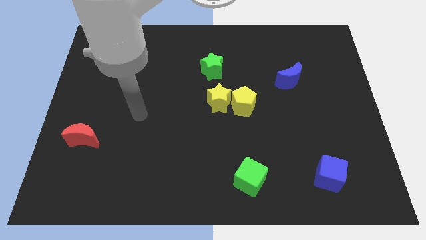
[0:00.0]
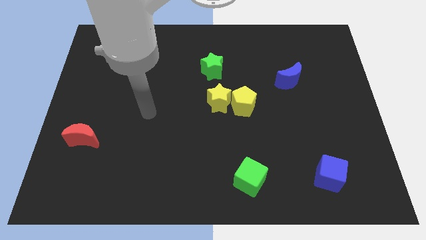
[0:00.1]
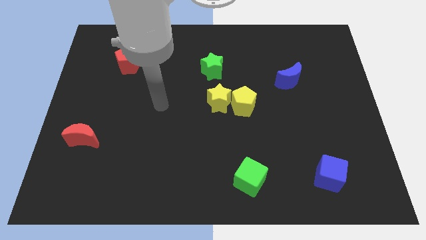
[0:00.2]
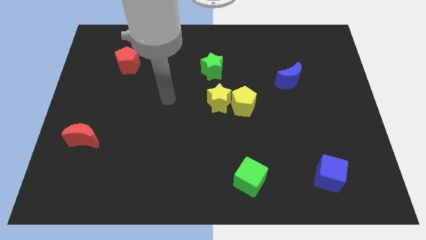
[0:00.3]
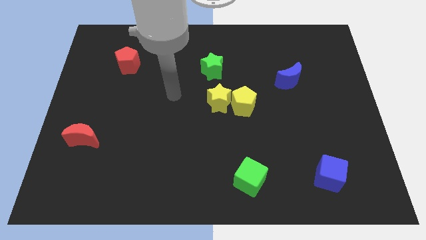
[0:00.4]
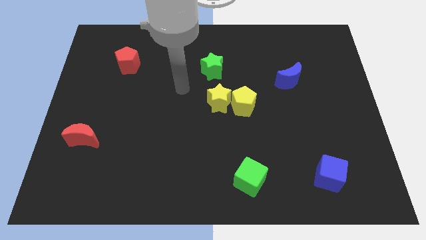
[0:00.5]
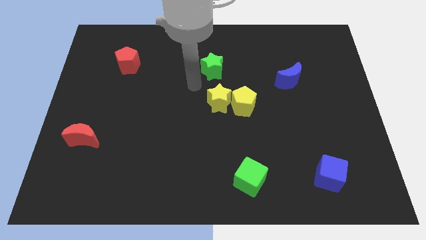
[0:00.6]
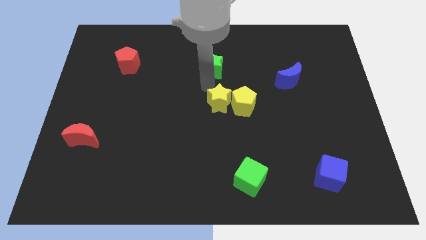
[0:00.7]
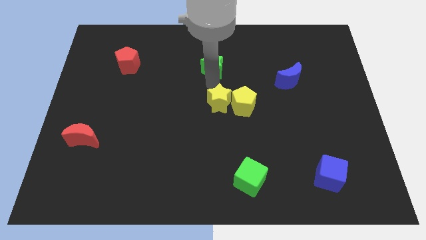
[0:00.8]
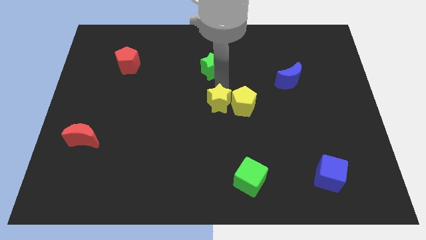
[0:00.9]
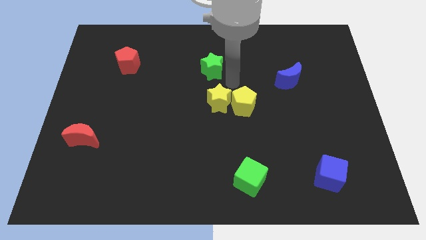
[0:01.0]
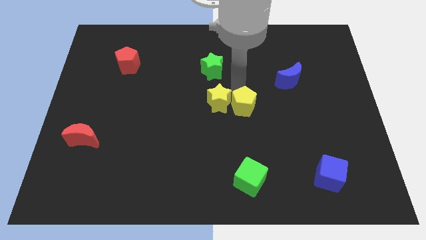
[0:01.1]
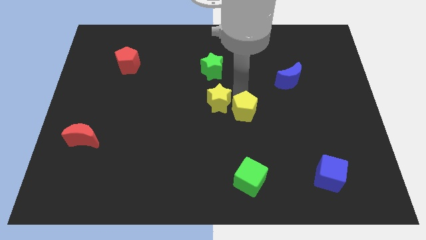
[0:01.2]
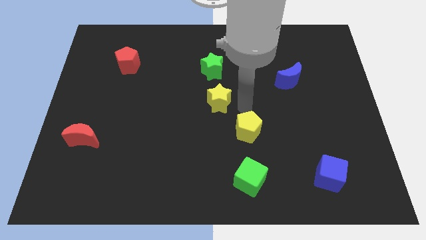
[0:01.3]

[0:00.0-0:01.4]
move the yellow star away from the yellow pentagon

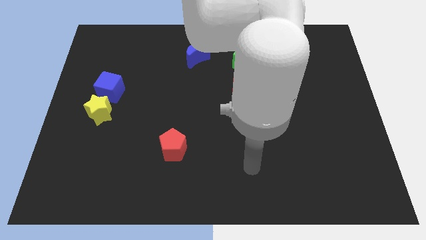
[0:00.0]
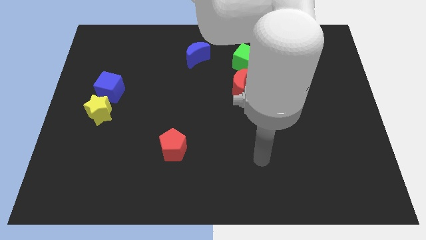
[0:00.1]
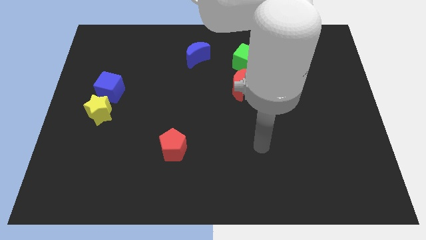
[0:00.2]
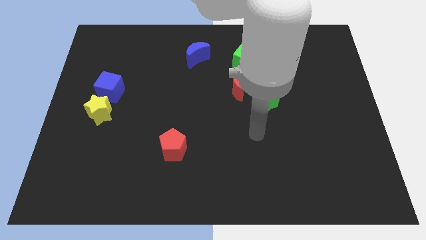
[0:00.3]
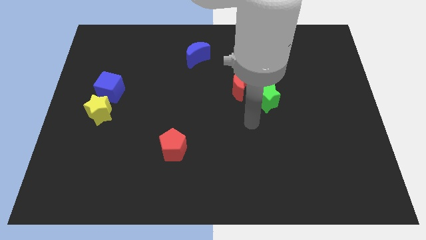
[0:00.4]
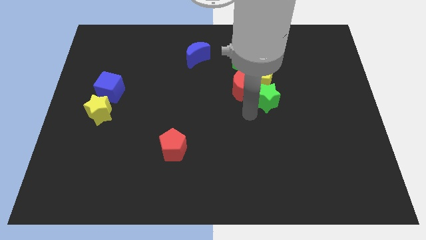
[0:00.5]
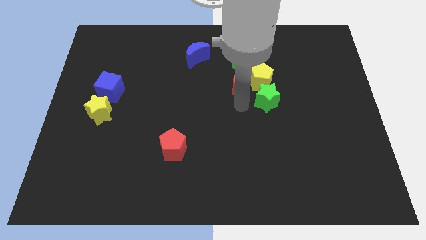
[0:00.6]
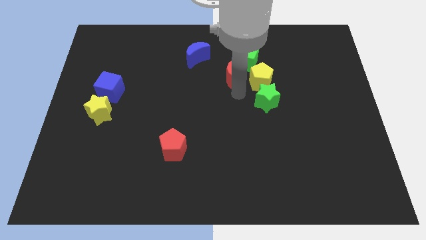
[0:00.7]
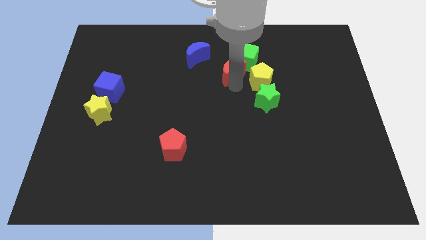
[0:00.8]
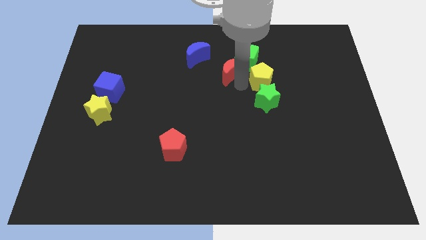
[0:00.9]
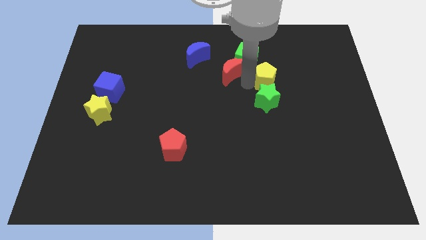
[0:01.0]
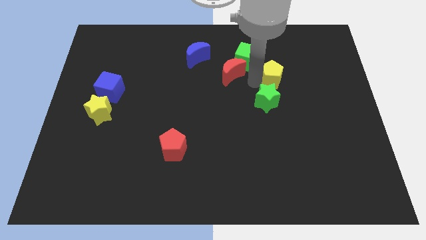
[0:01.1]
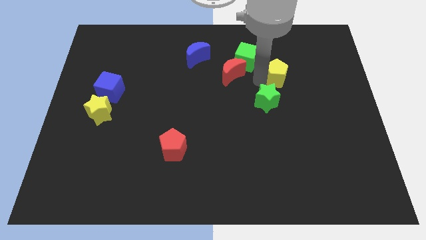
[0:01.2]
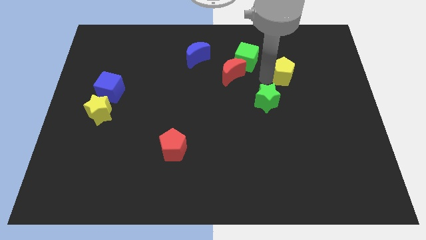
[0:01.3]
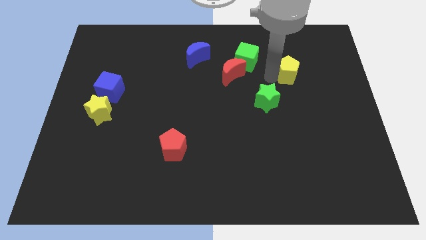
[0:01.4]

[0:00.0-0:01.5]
separate the yellow pentagon from the red moon, green star, and green cube

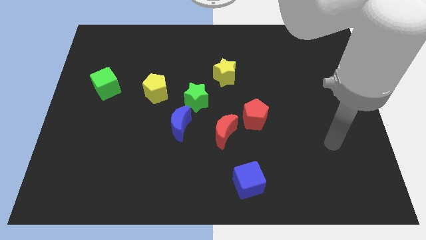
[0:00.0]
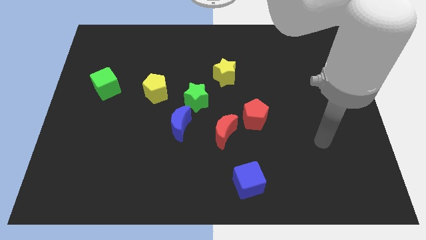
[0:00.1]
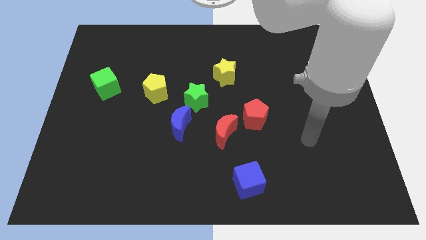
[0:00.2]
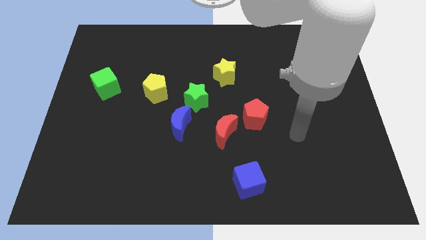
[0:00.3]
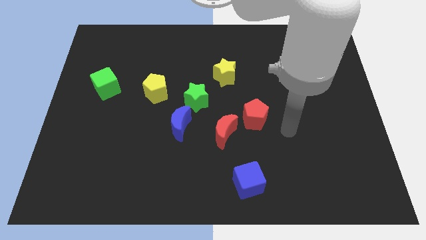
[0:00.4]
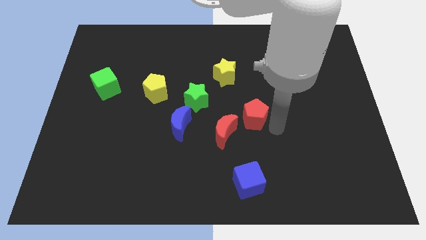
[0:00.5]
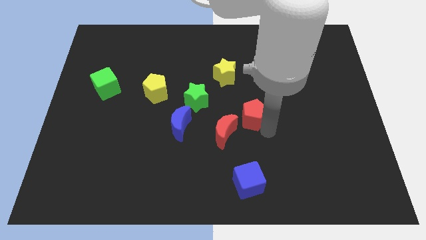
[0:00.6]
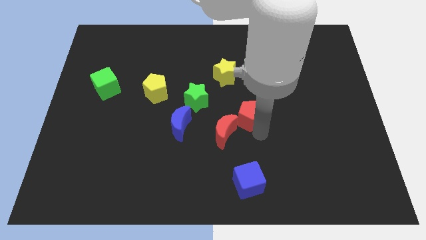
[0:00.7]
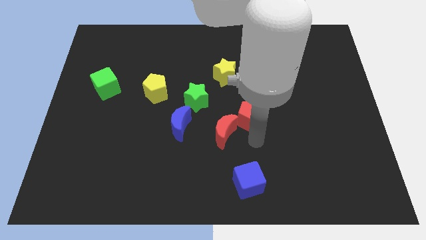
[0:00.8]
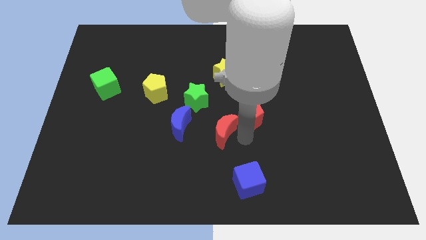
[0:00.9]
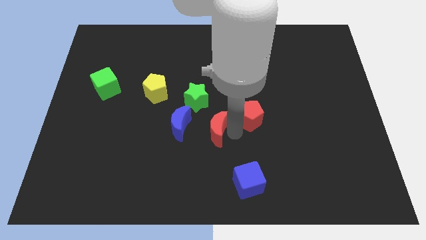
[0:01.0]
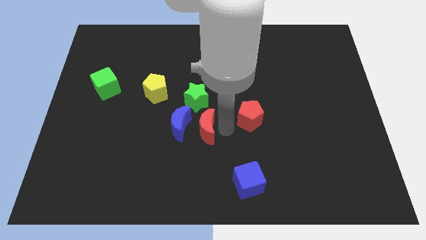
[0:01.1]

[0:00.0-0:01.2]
separate the red pentagon from the red moon

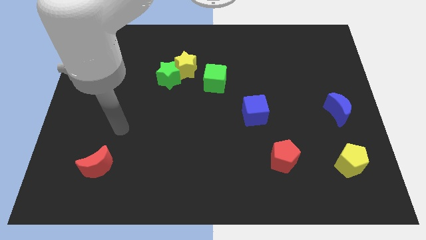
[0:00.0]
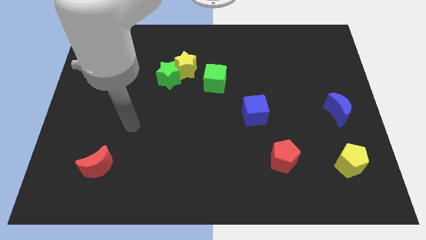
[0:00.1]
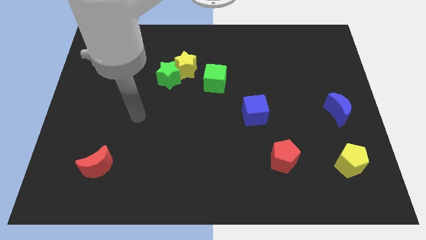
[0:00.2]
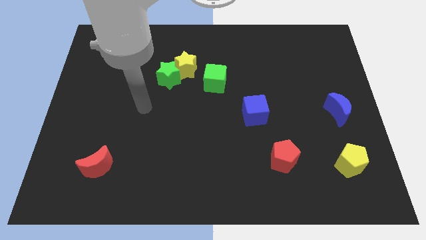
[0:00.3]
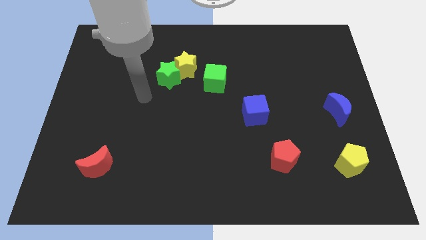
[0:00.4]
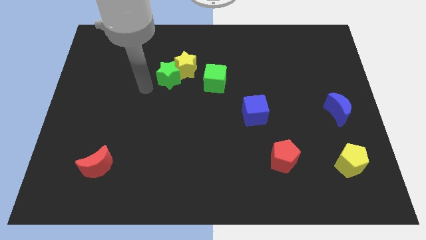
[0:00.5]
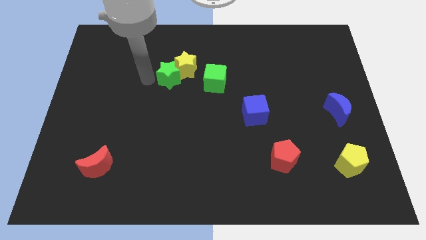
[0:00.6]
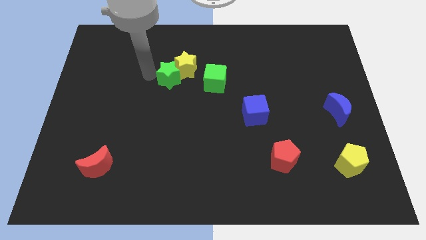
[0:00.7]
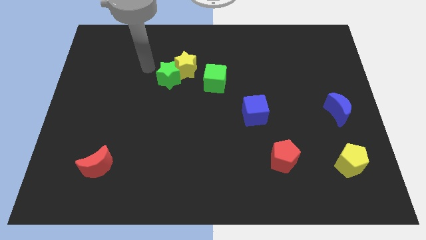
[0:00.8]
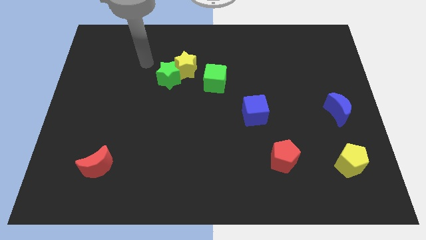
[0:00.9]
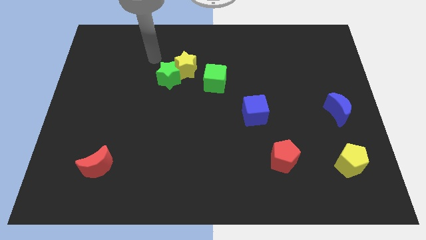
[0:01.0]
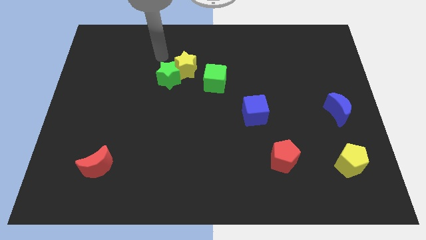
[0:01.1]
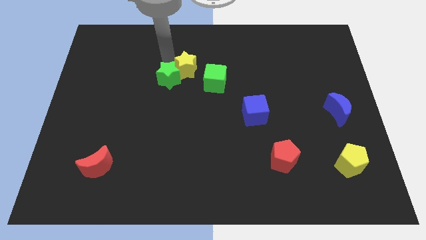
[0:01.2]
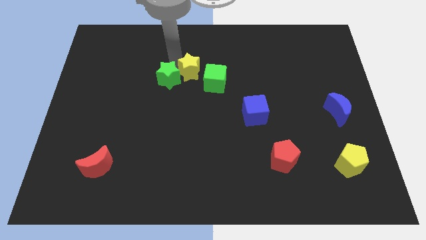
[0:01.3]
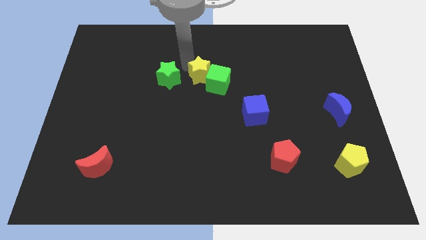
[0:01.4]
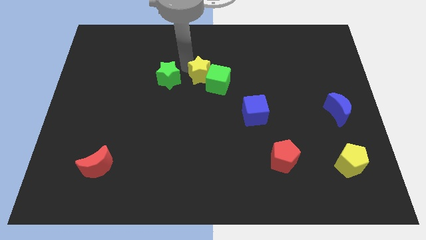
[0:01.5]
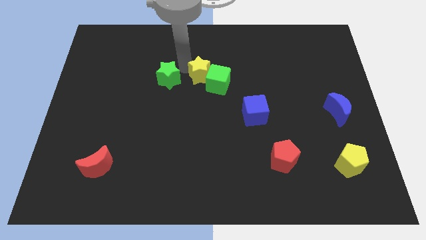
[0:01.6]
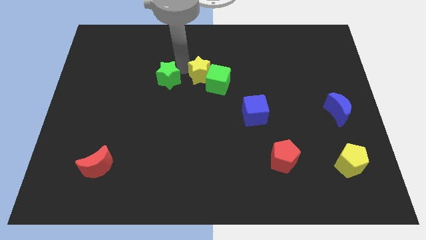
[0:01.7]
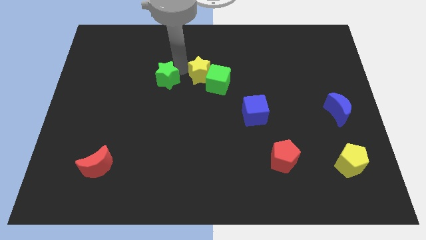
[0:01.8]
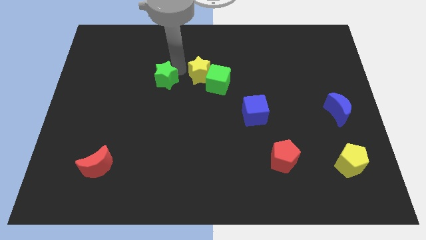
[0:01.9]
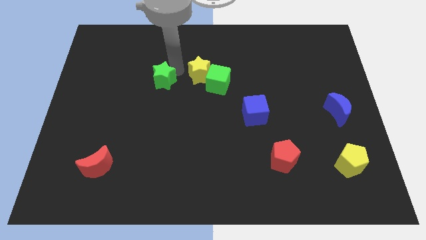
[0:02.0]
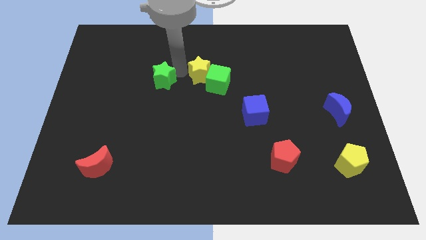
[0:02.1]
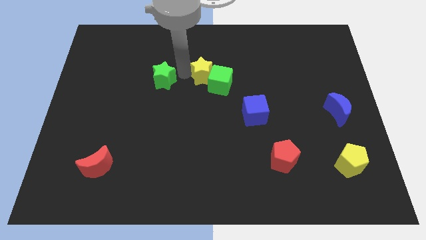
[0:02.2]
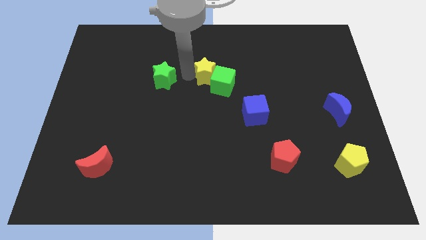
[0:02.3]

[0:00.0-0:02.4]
separate the green star from the yellow star

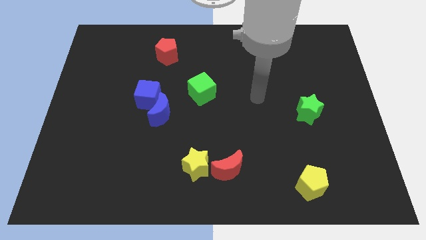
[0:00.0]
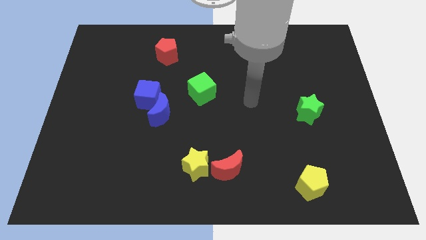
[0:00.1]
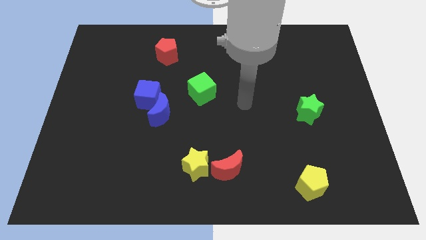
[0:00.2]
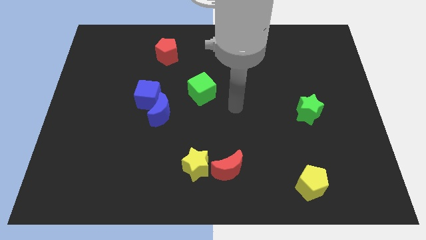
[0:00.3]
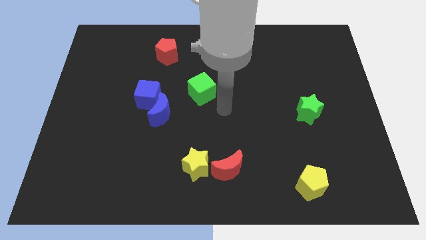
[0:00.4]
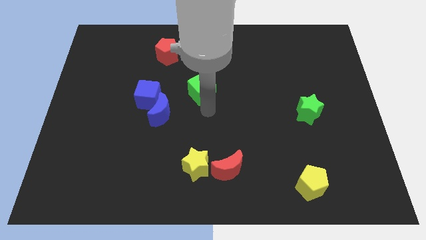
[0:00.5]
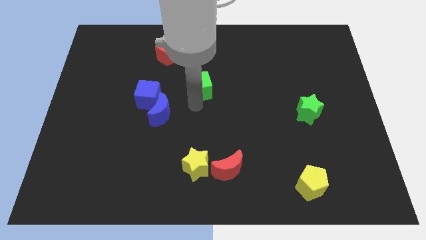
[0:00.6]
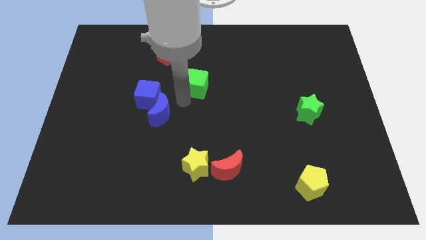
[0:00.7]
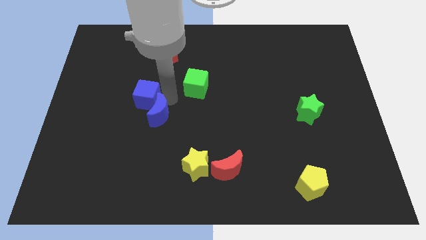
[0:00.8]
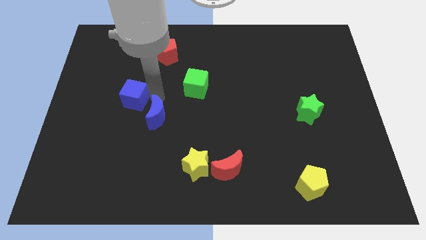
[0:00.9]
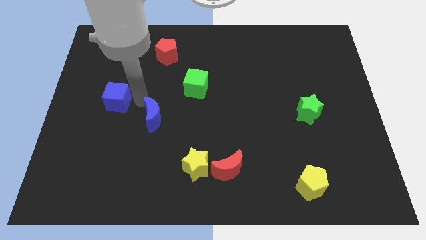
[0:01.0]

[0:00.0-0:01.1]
separate the blue moon from the blue cube

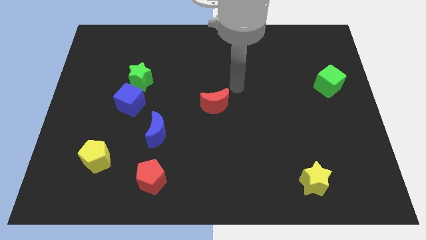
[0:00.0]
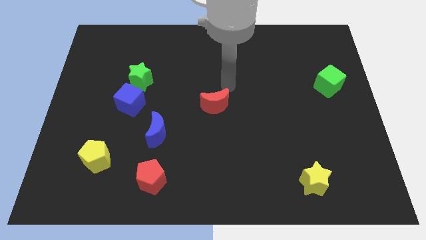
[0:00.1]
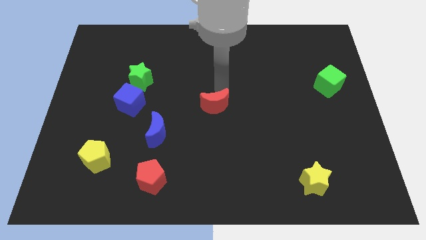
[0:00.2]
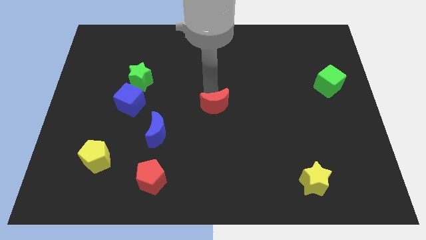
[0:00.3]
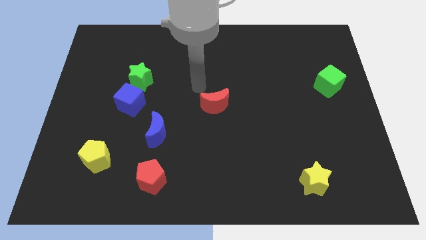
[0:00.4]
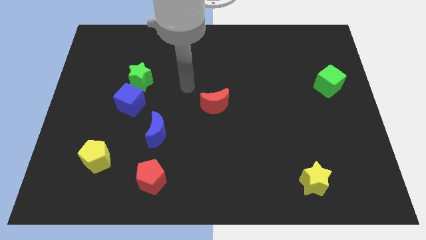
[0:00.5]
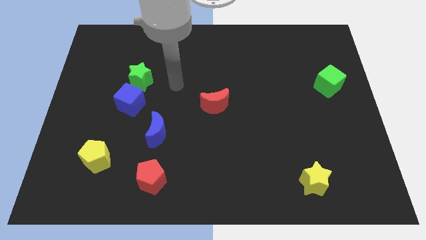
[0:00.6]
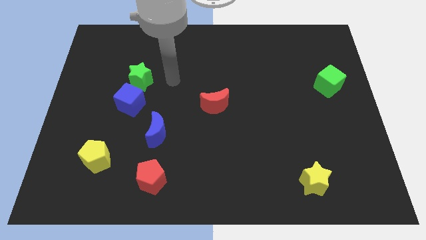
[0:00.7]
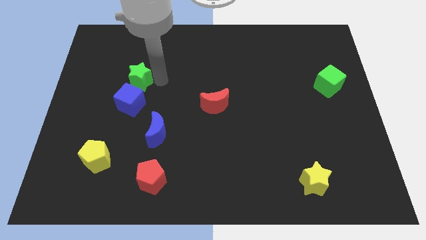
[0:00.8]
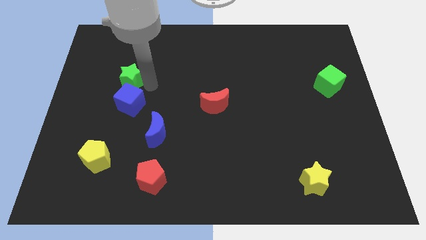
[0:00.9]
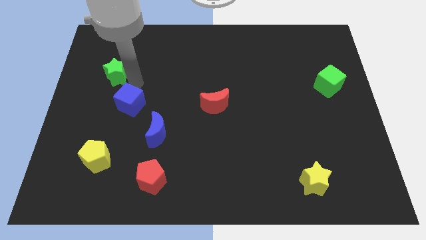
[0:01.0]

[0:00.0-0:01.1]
move the blue cube away from the green star

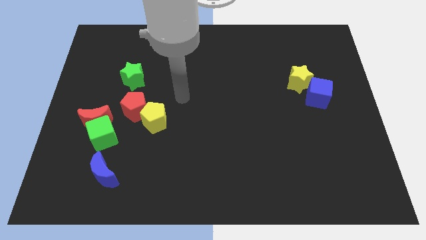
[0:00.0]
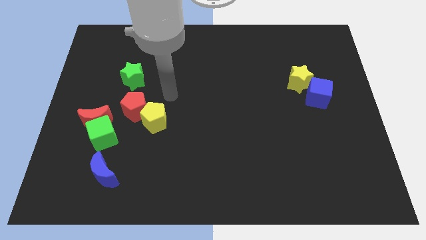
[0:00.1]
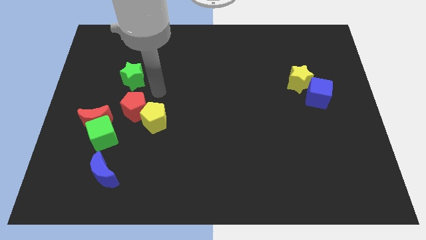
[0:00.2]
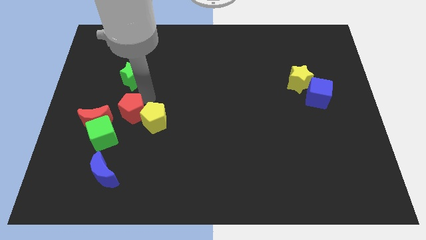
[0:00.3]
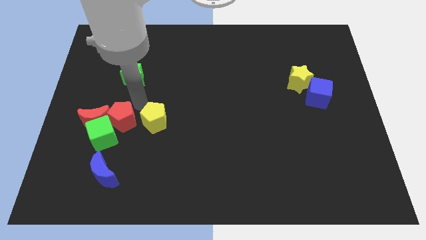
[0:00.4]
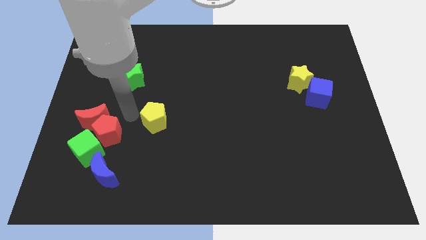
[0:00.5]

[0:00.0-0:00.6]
separate the yellow pentagon from the red pentagon

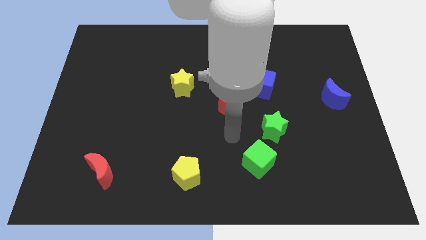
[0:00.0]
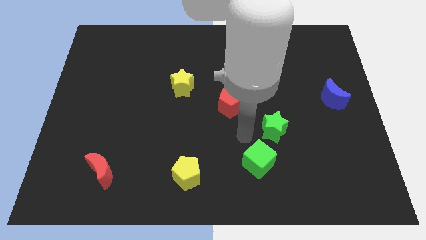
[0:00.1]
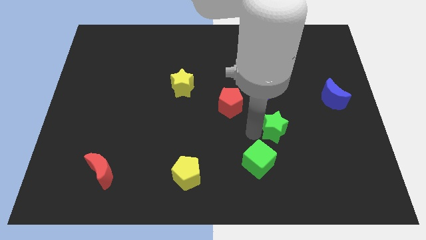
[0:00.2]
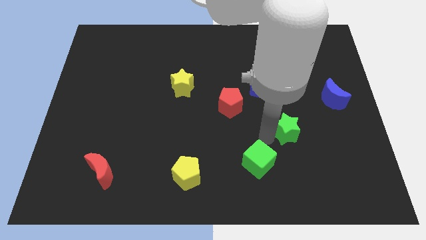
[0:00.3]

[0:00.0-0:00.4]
move the green cube away from the green star
